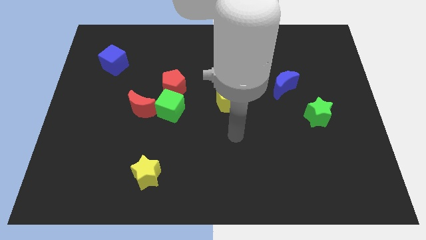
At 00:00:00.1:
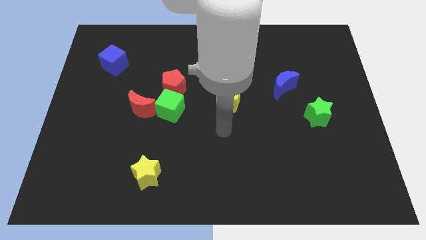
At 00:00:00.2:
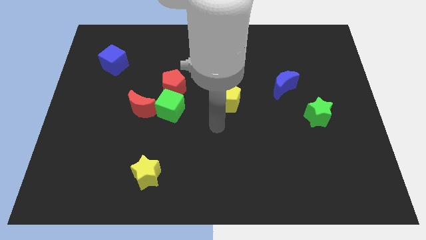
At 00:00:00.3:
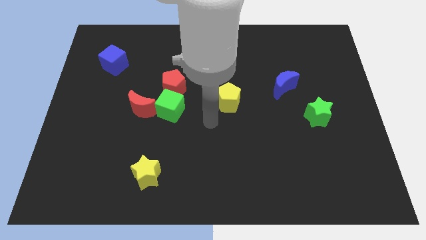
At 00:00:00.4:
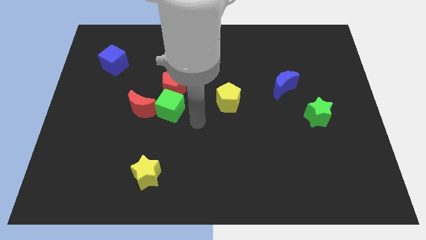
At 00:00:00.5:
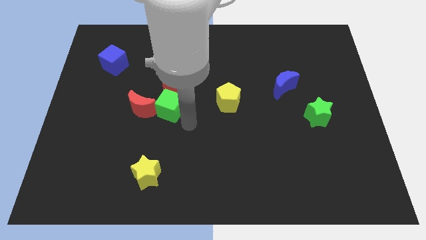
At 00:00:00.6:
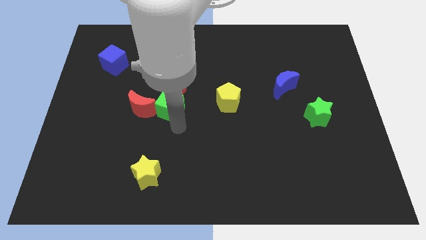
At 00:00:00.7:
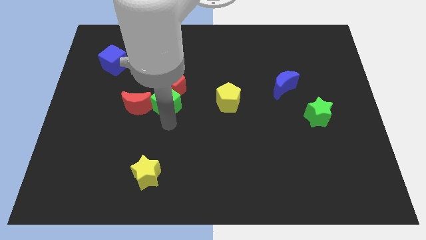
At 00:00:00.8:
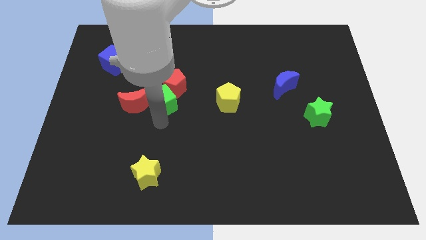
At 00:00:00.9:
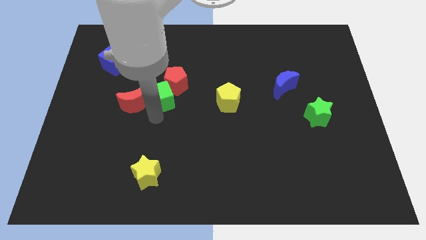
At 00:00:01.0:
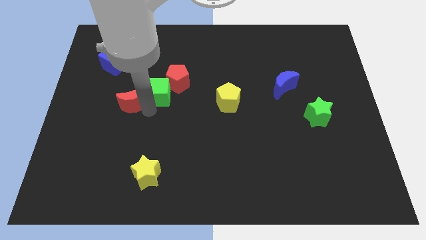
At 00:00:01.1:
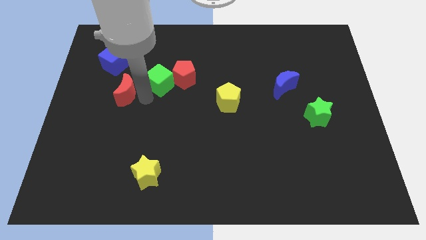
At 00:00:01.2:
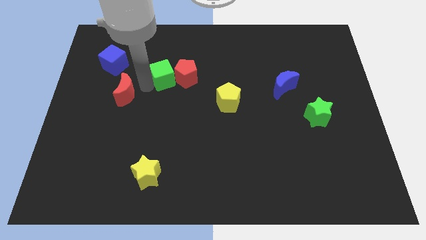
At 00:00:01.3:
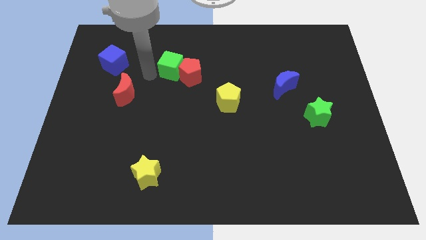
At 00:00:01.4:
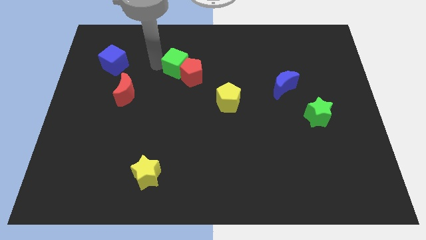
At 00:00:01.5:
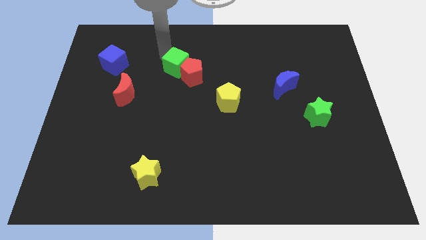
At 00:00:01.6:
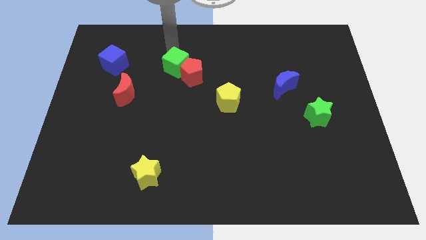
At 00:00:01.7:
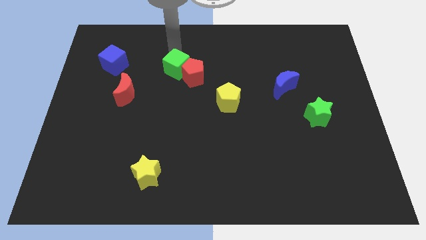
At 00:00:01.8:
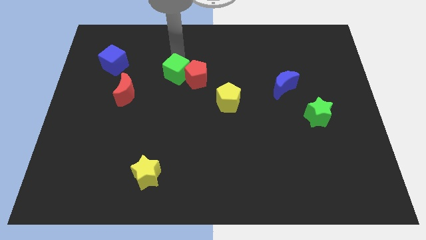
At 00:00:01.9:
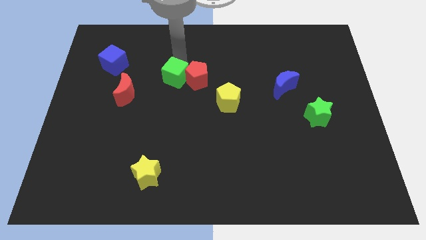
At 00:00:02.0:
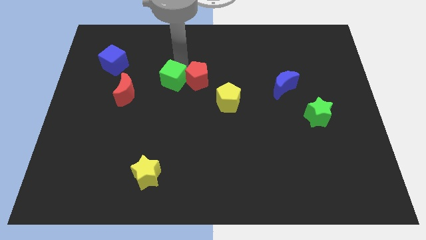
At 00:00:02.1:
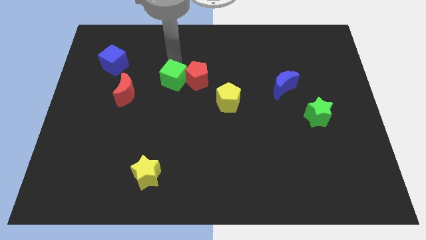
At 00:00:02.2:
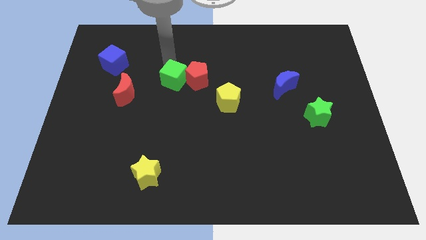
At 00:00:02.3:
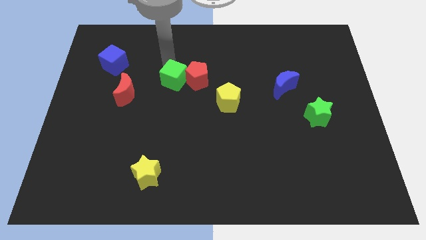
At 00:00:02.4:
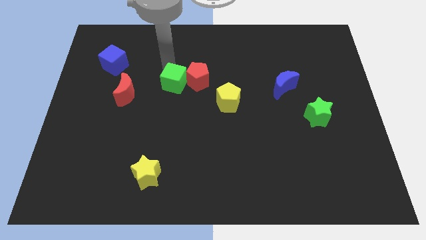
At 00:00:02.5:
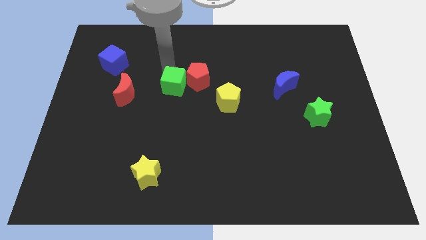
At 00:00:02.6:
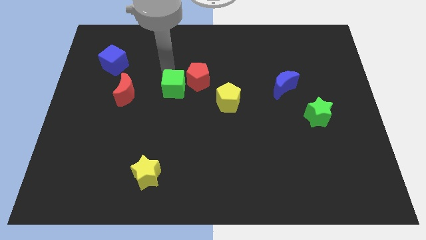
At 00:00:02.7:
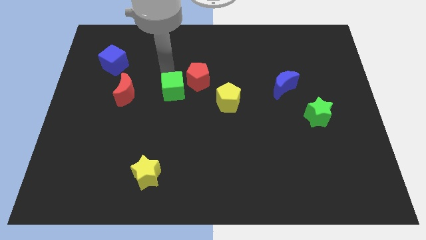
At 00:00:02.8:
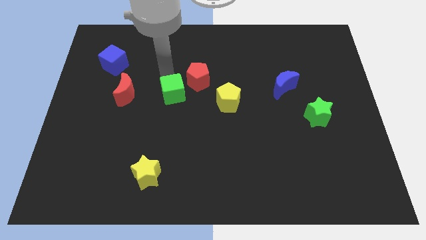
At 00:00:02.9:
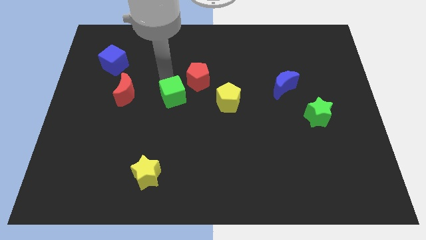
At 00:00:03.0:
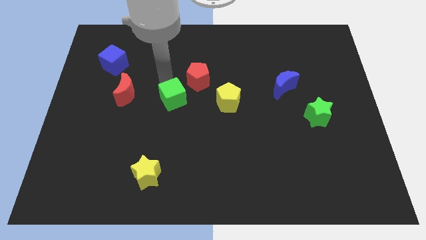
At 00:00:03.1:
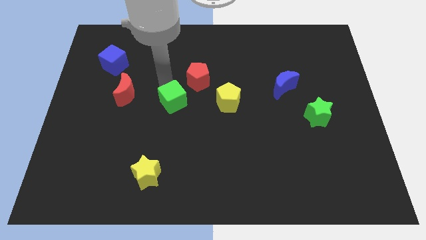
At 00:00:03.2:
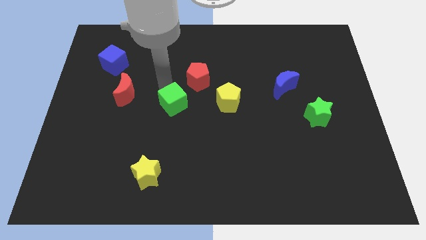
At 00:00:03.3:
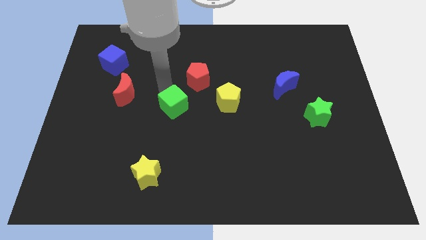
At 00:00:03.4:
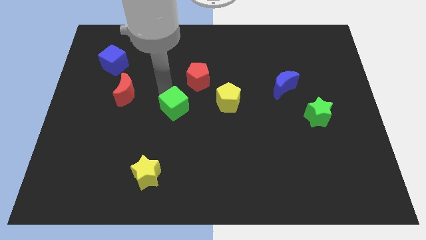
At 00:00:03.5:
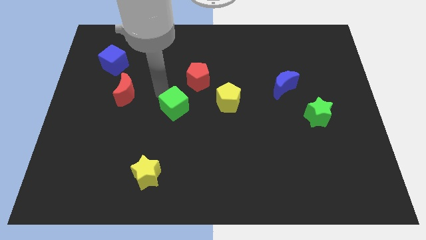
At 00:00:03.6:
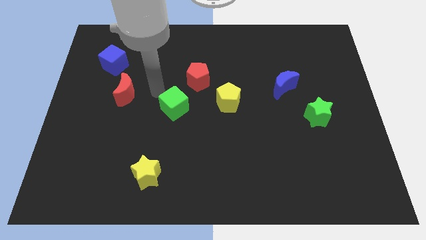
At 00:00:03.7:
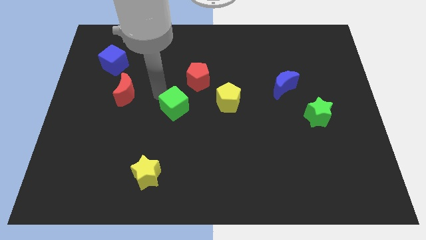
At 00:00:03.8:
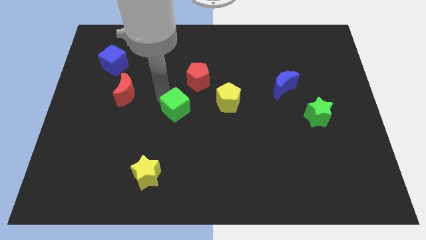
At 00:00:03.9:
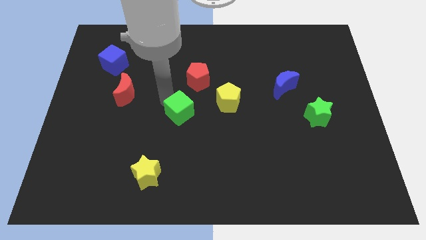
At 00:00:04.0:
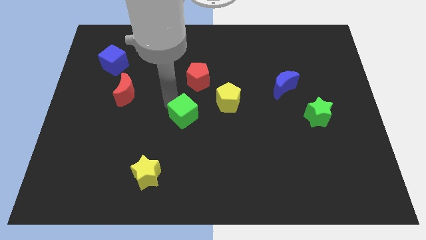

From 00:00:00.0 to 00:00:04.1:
pull the green cube apart from the red pentagon and red moon

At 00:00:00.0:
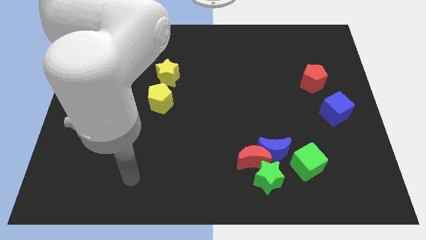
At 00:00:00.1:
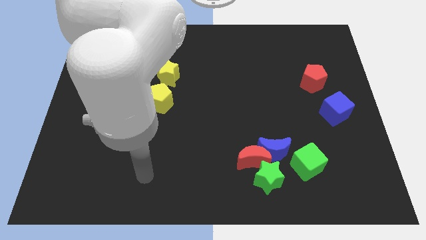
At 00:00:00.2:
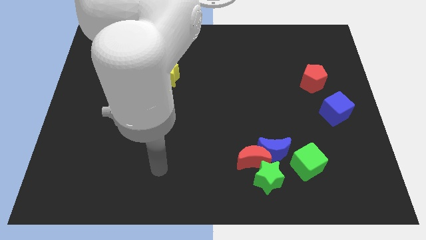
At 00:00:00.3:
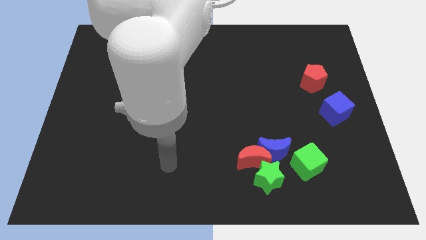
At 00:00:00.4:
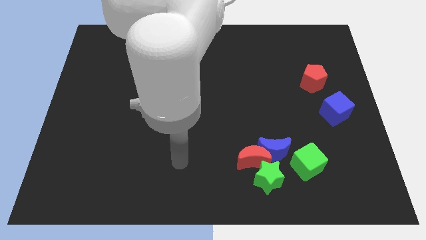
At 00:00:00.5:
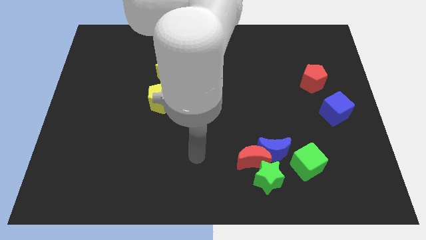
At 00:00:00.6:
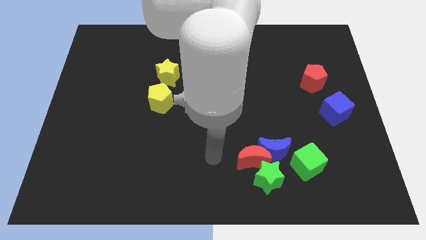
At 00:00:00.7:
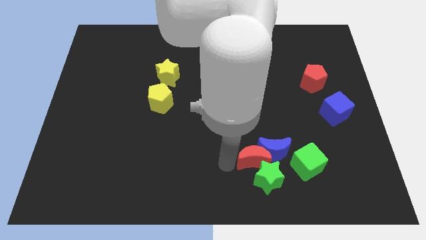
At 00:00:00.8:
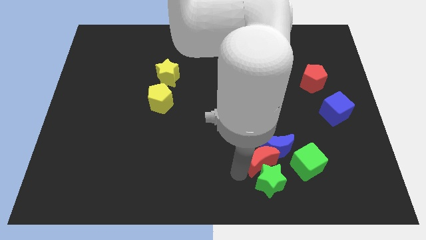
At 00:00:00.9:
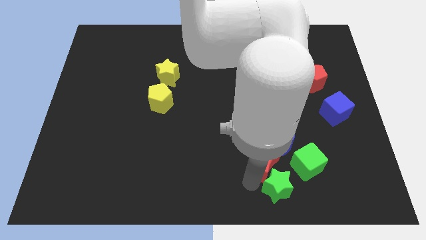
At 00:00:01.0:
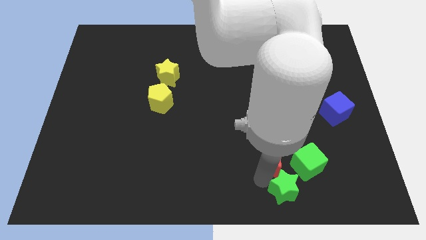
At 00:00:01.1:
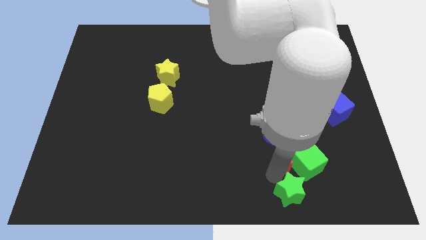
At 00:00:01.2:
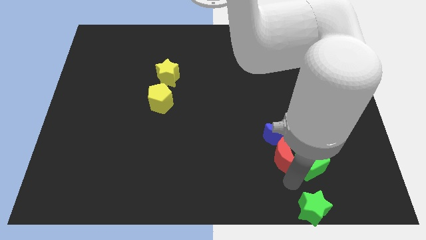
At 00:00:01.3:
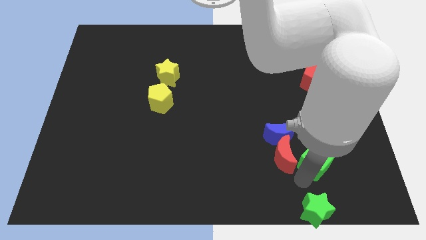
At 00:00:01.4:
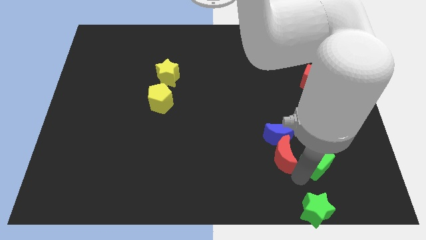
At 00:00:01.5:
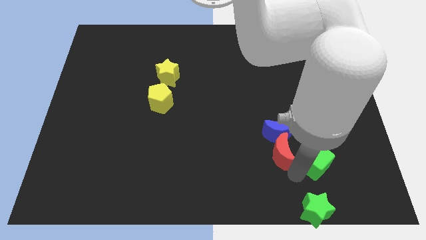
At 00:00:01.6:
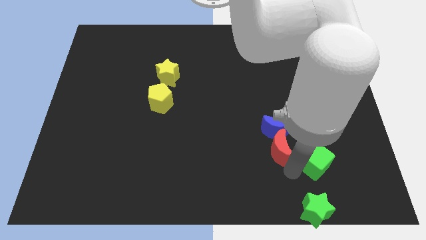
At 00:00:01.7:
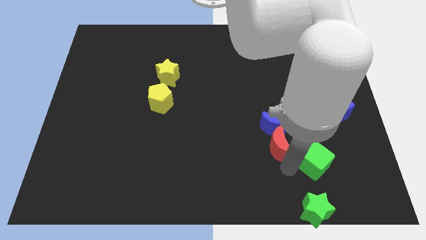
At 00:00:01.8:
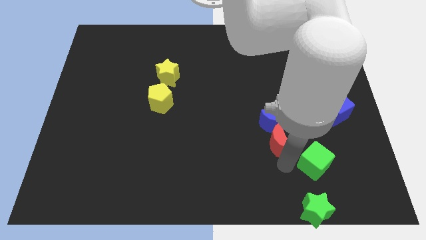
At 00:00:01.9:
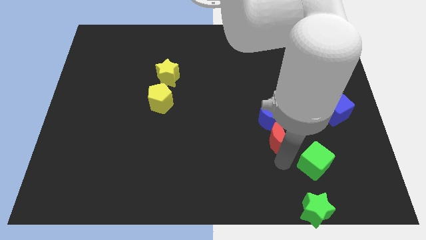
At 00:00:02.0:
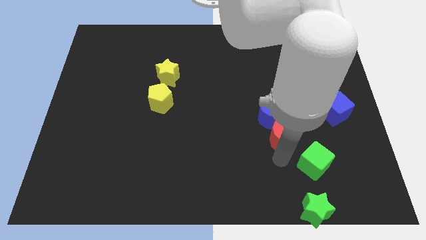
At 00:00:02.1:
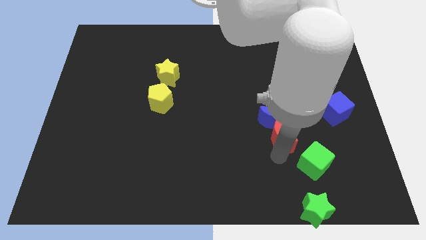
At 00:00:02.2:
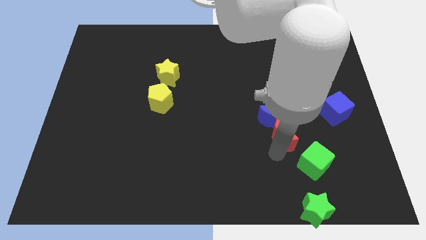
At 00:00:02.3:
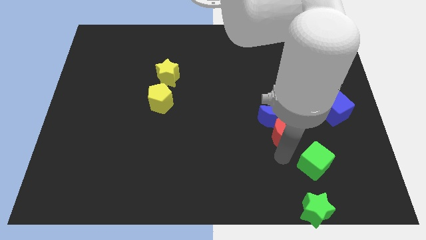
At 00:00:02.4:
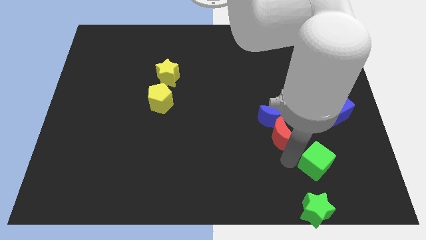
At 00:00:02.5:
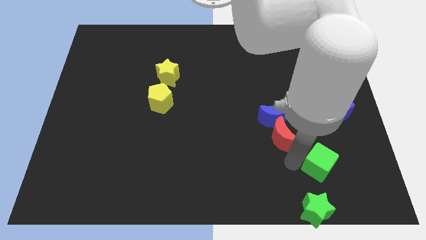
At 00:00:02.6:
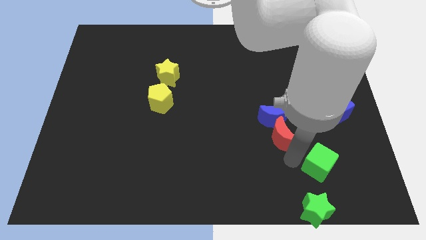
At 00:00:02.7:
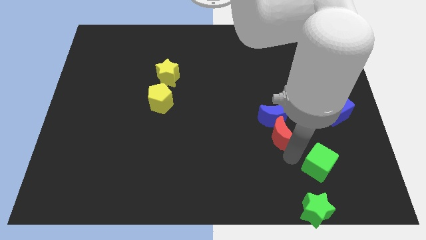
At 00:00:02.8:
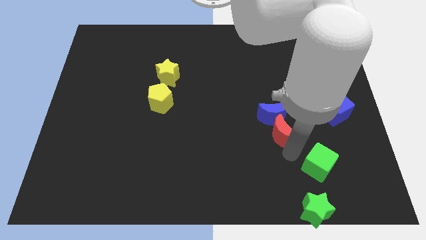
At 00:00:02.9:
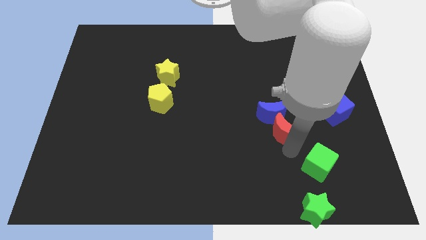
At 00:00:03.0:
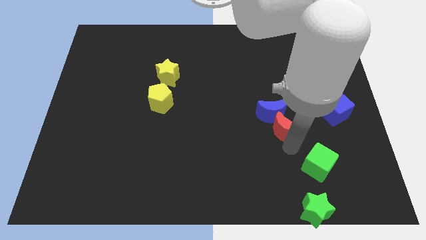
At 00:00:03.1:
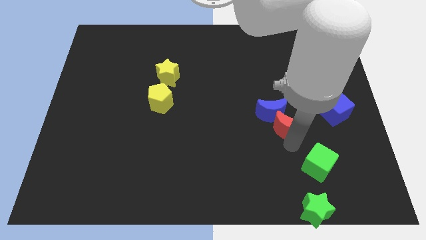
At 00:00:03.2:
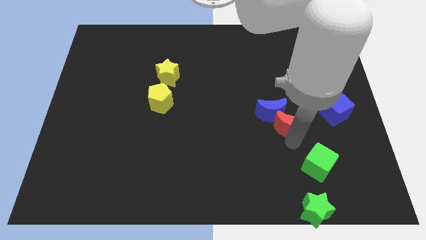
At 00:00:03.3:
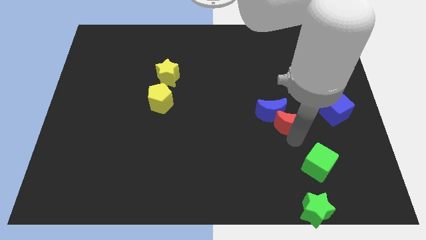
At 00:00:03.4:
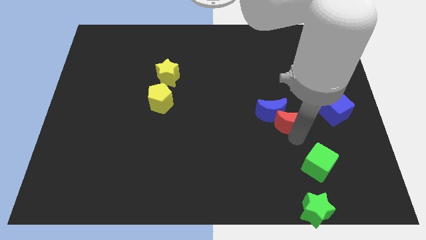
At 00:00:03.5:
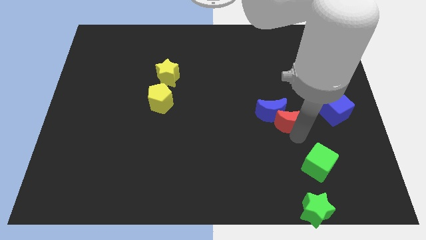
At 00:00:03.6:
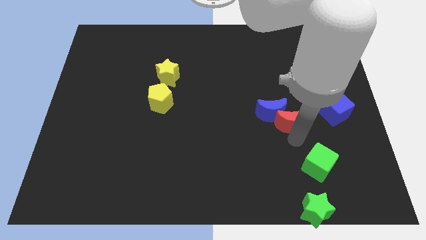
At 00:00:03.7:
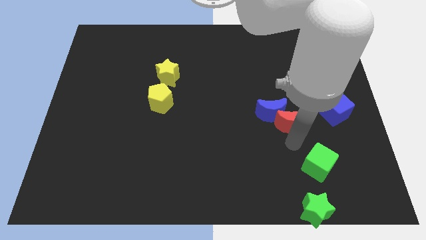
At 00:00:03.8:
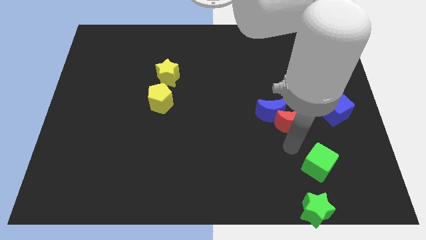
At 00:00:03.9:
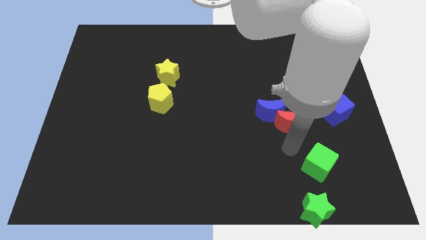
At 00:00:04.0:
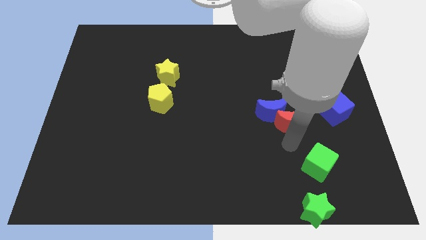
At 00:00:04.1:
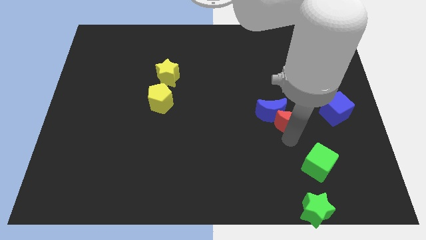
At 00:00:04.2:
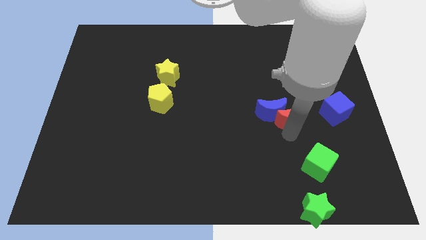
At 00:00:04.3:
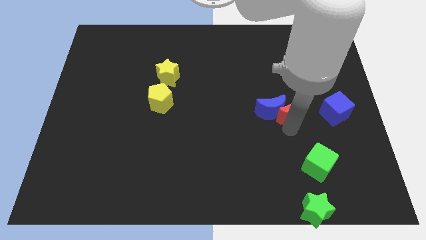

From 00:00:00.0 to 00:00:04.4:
pull the red moon apart from the blue moon and green star

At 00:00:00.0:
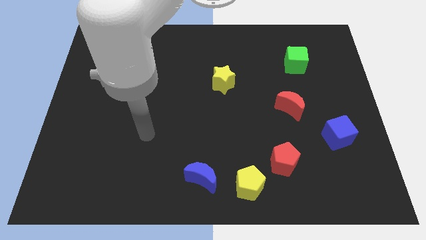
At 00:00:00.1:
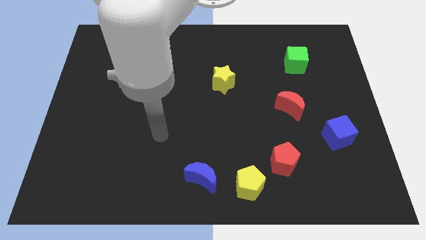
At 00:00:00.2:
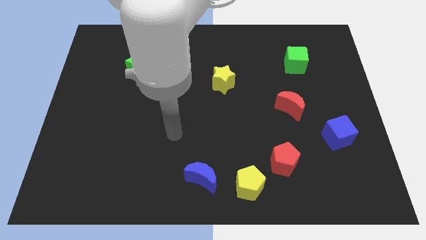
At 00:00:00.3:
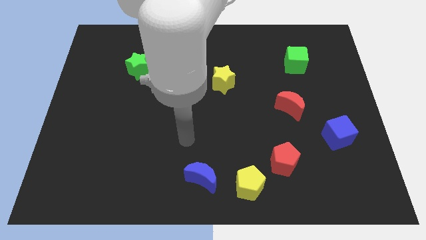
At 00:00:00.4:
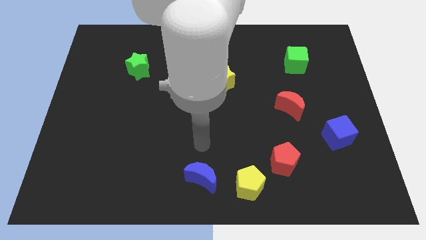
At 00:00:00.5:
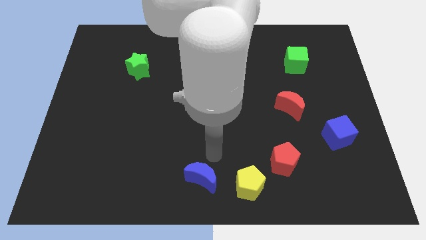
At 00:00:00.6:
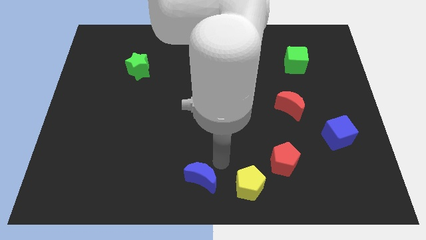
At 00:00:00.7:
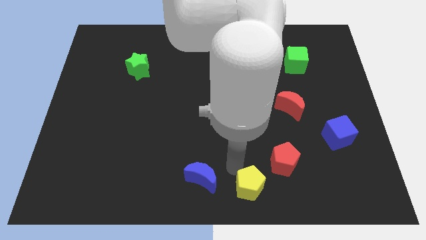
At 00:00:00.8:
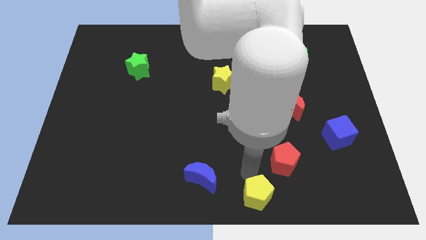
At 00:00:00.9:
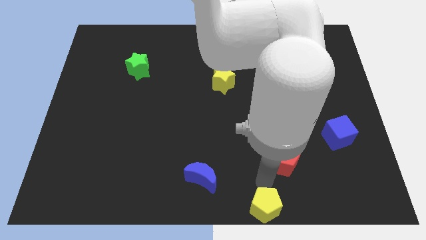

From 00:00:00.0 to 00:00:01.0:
move the red pentagon away from the yellow pentagon
